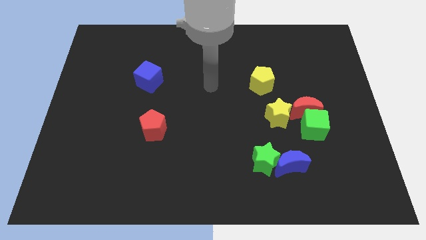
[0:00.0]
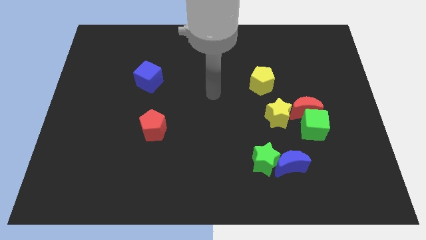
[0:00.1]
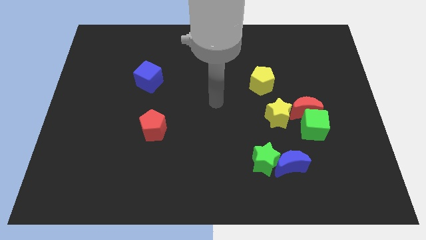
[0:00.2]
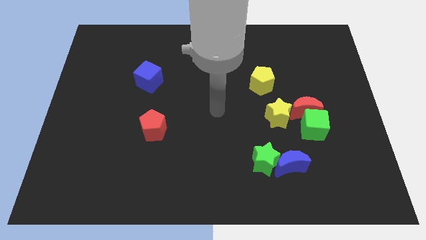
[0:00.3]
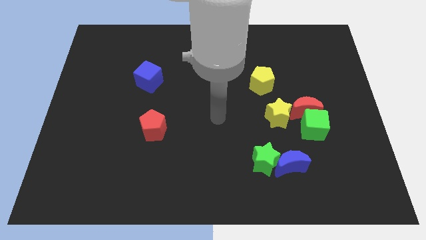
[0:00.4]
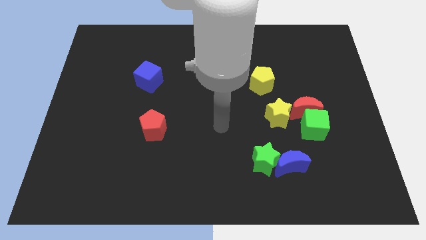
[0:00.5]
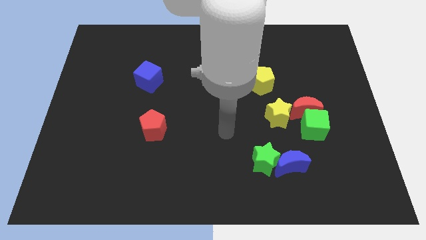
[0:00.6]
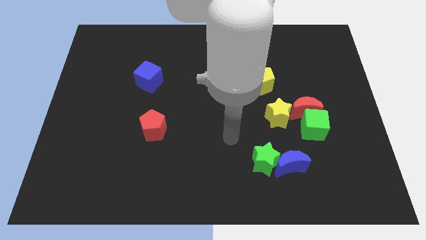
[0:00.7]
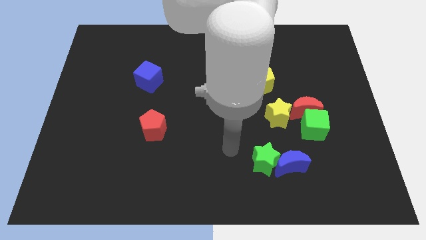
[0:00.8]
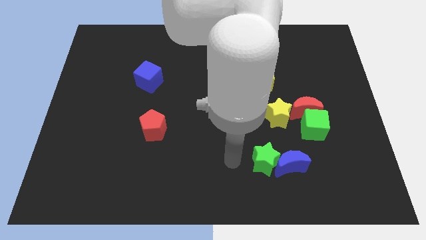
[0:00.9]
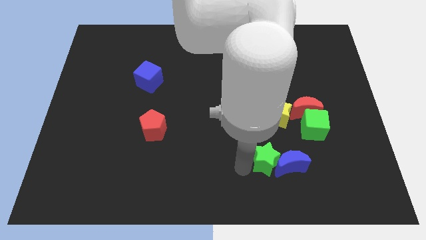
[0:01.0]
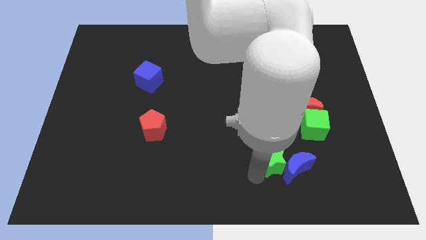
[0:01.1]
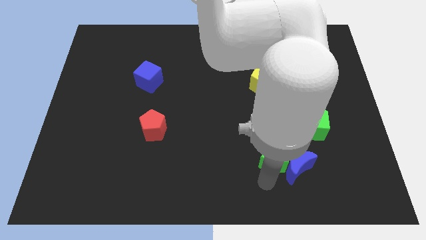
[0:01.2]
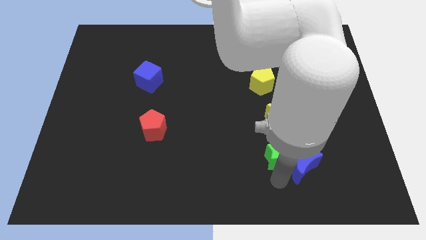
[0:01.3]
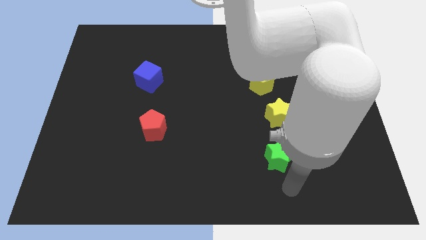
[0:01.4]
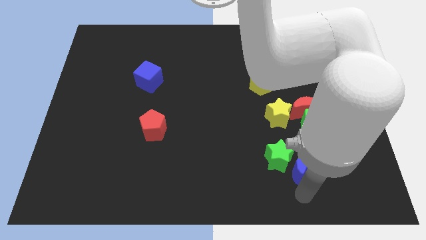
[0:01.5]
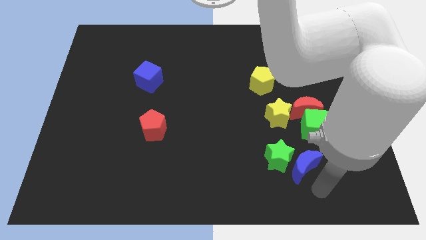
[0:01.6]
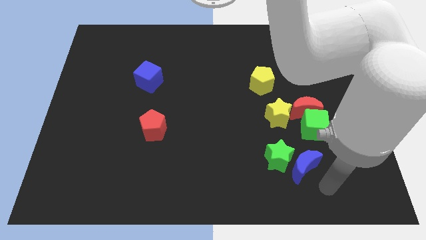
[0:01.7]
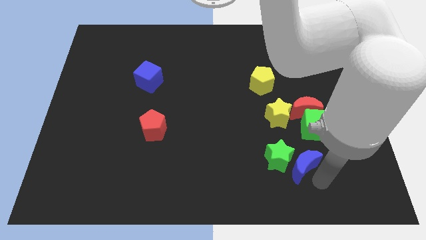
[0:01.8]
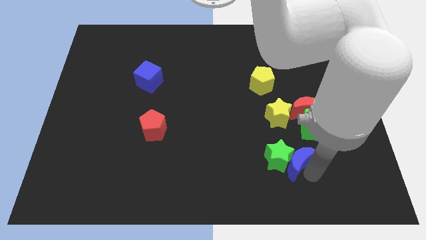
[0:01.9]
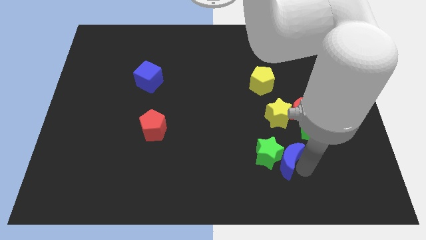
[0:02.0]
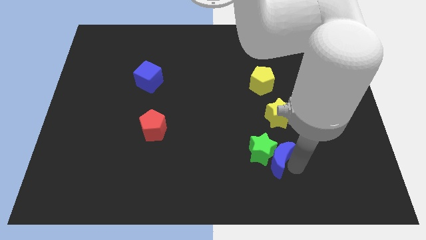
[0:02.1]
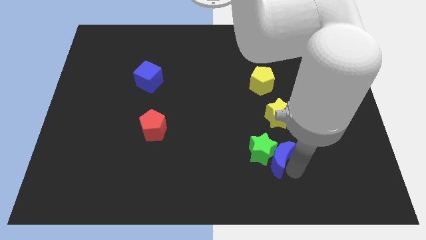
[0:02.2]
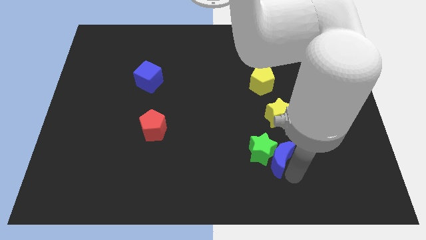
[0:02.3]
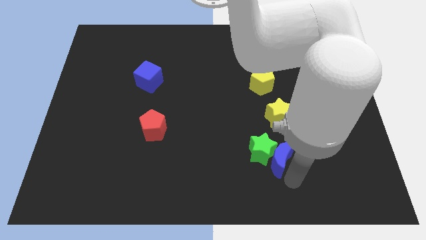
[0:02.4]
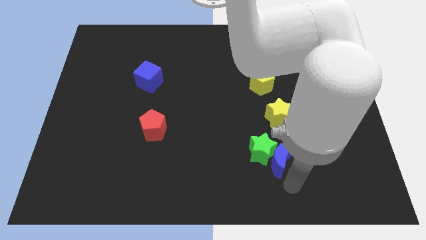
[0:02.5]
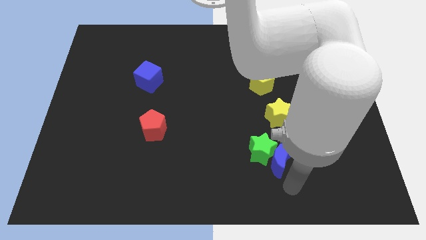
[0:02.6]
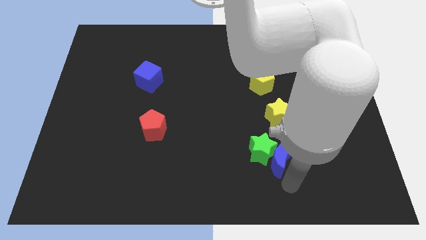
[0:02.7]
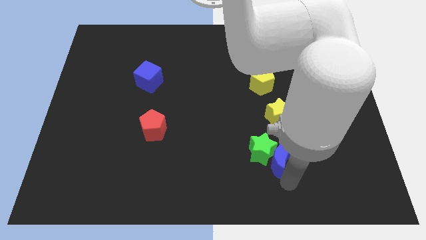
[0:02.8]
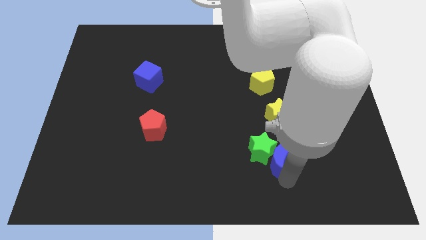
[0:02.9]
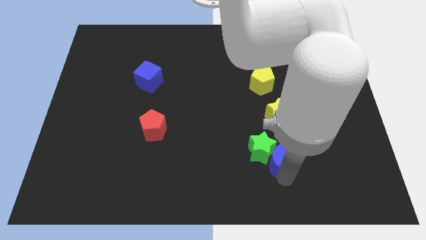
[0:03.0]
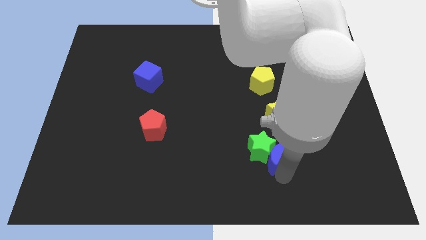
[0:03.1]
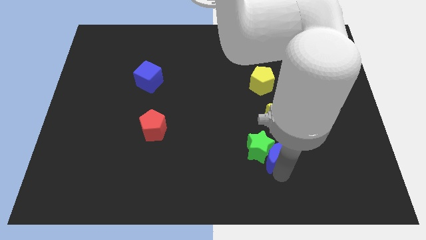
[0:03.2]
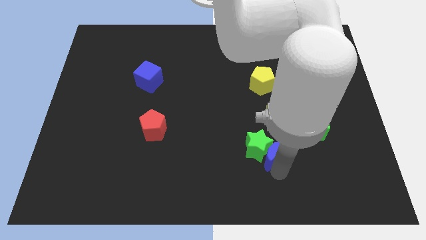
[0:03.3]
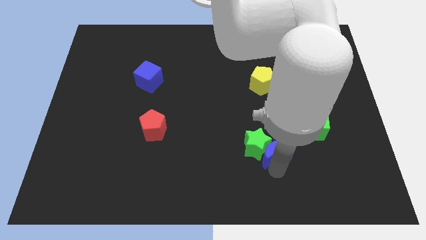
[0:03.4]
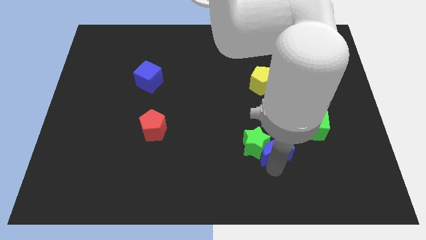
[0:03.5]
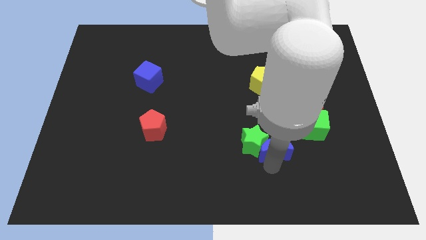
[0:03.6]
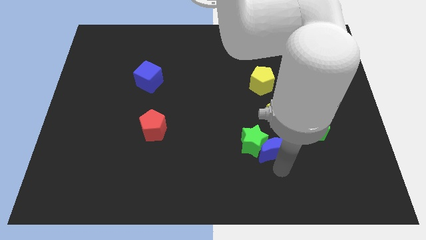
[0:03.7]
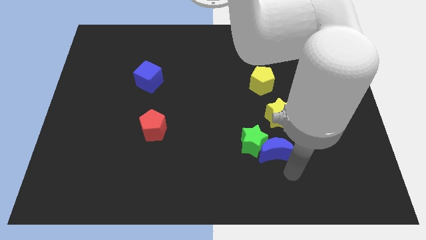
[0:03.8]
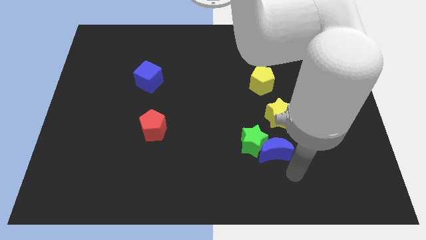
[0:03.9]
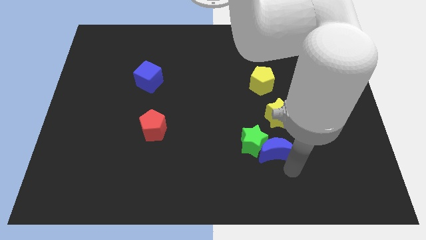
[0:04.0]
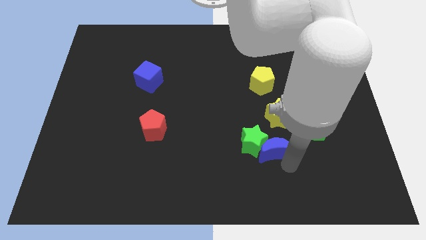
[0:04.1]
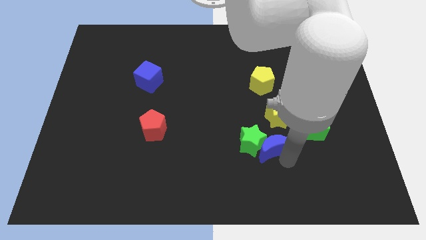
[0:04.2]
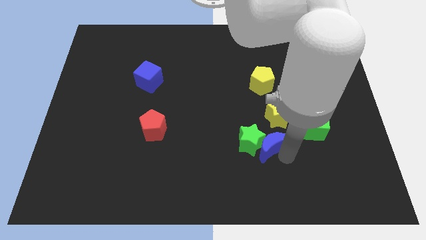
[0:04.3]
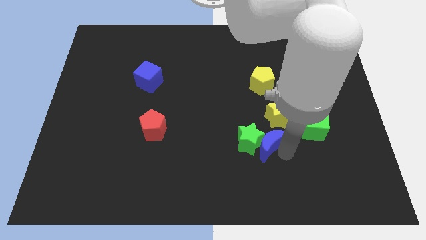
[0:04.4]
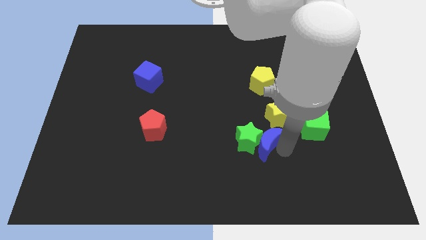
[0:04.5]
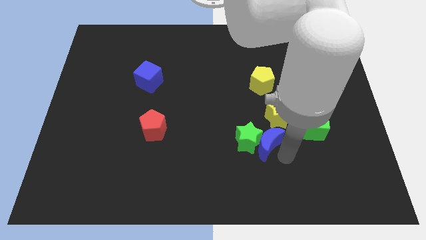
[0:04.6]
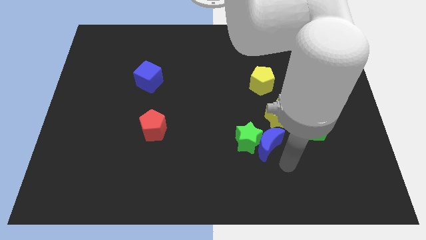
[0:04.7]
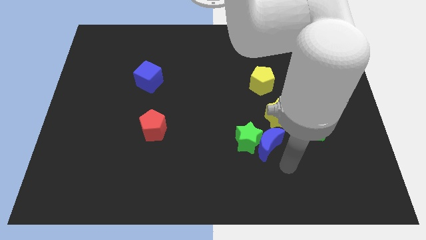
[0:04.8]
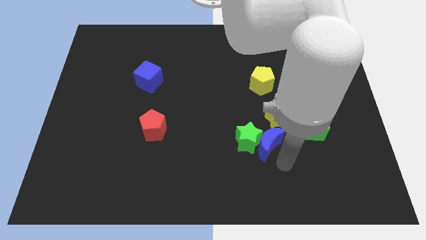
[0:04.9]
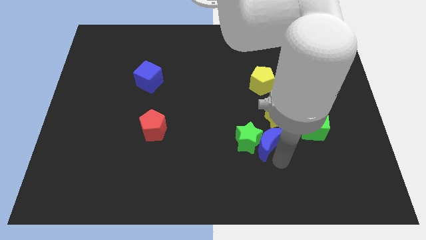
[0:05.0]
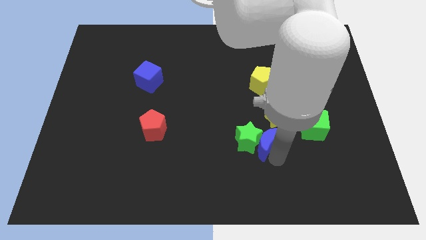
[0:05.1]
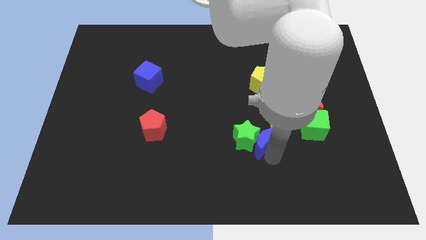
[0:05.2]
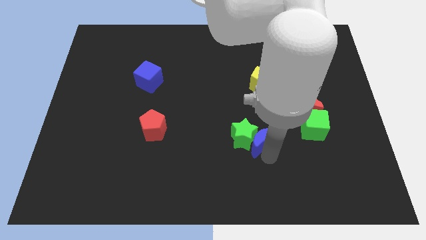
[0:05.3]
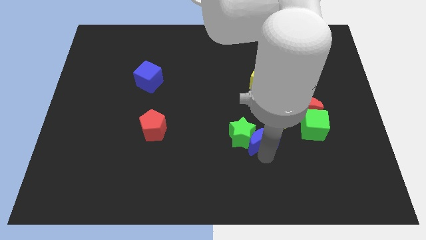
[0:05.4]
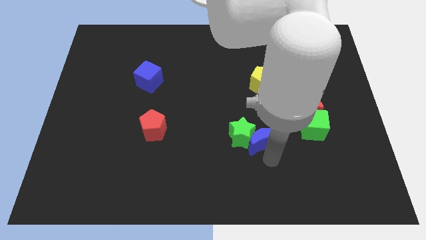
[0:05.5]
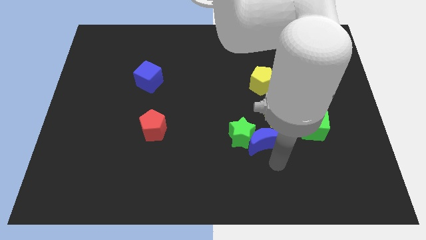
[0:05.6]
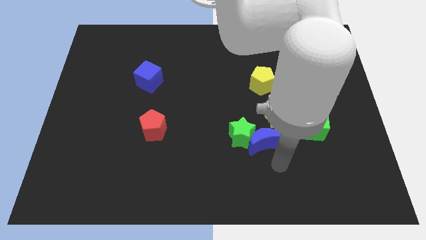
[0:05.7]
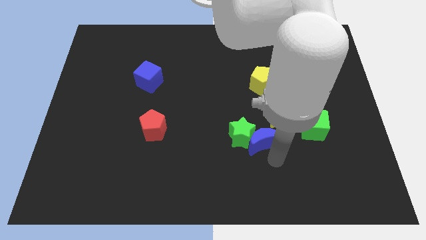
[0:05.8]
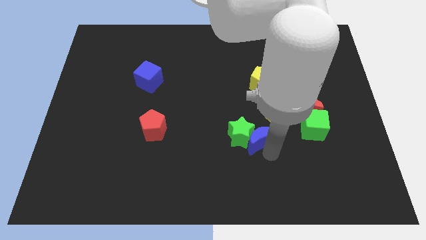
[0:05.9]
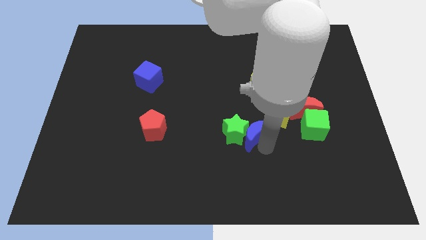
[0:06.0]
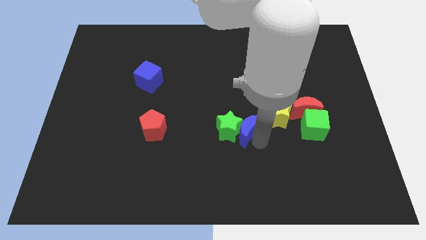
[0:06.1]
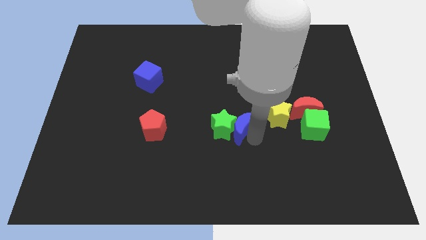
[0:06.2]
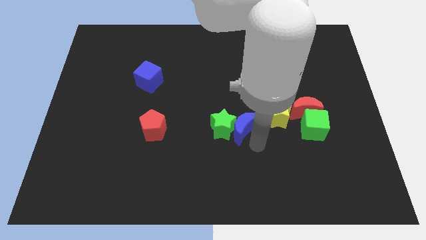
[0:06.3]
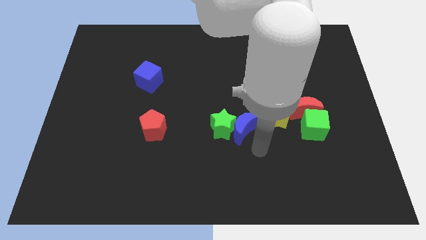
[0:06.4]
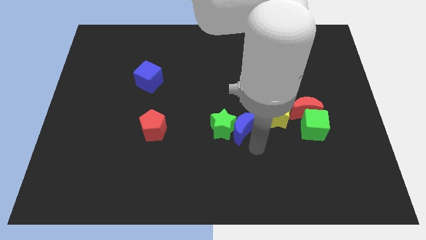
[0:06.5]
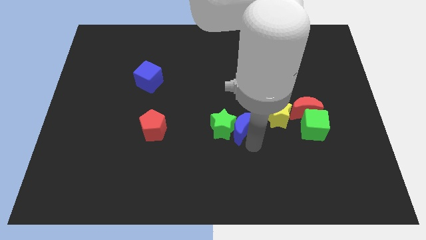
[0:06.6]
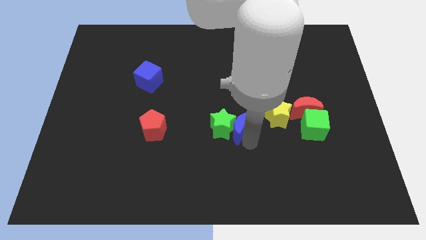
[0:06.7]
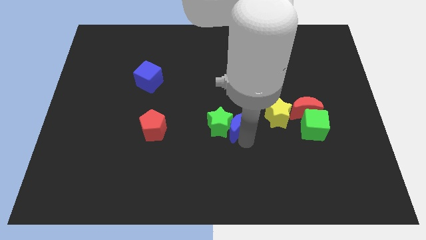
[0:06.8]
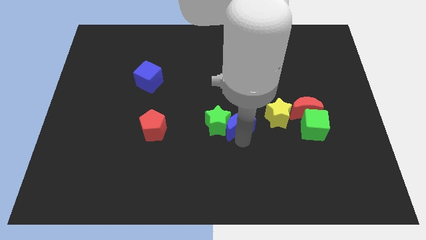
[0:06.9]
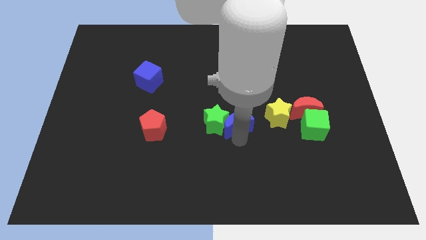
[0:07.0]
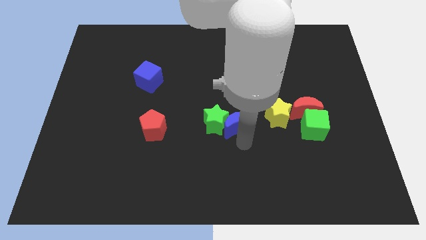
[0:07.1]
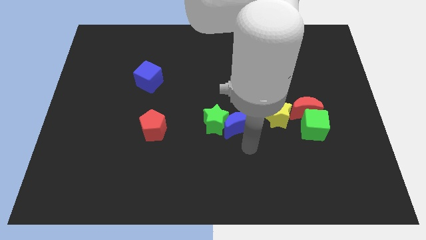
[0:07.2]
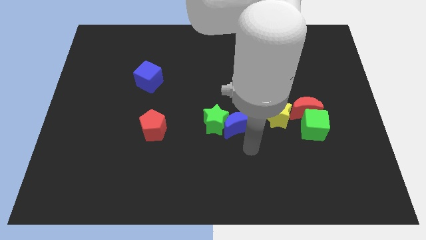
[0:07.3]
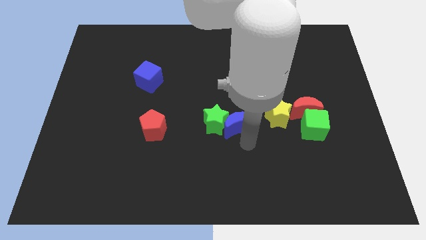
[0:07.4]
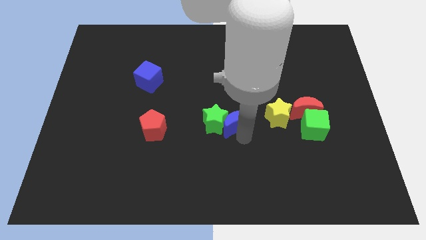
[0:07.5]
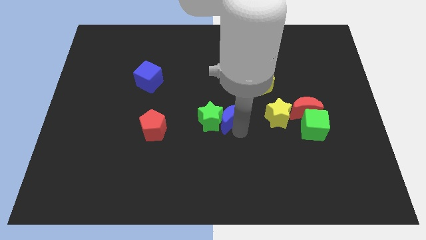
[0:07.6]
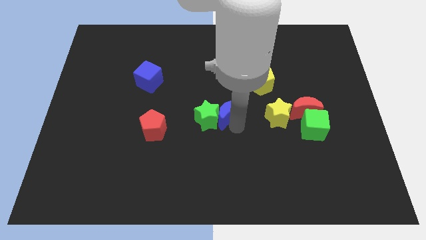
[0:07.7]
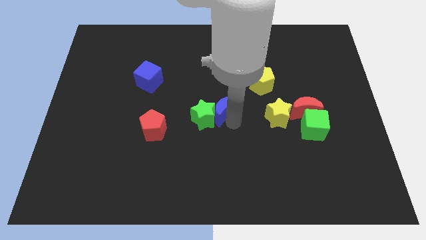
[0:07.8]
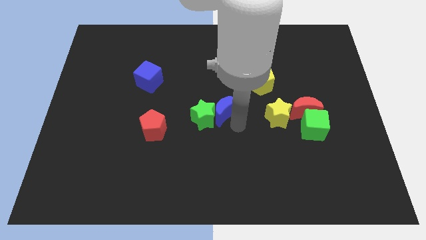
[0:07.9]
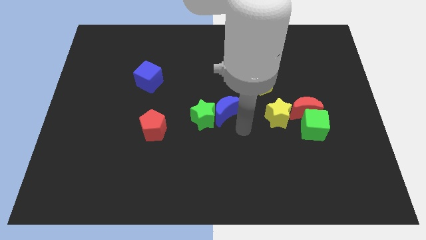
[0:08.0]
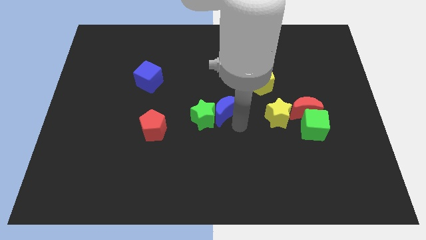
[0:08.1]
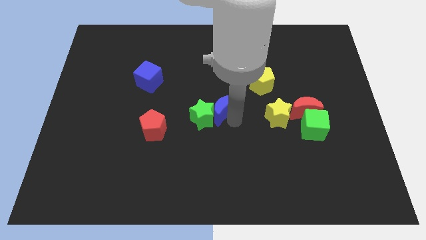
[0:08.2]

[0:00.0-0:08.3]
push the blue moon up and then to the left

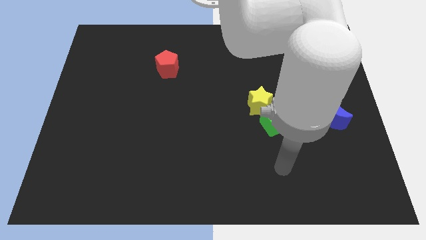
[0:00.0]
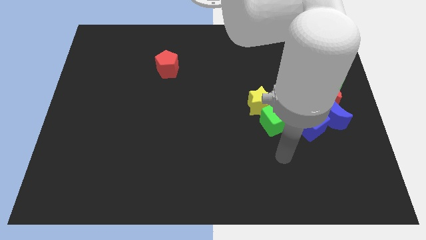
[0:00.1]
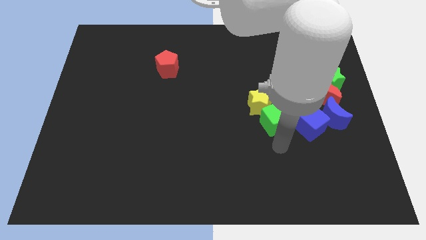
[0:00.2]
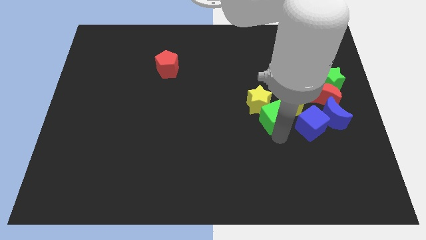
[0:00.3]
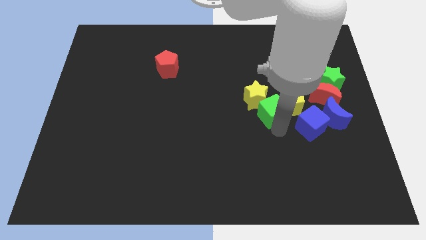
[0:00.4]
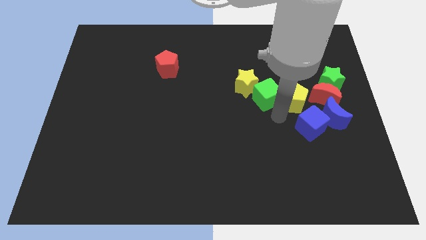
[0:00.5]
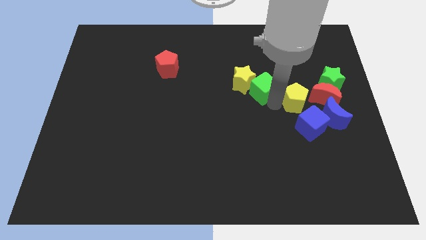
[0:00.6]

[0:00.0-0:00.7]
slide the yellow star a little up and left
